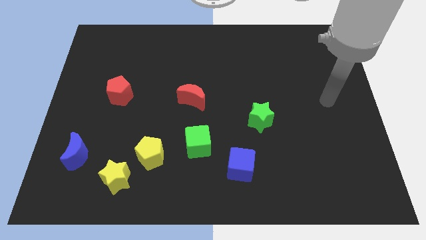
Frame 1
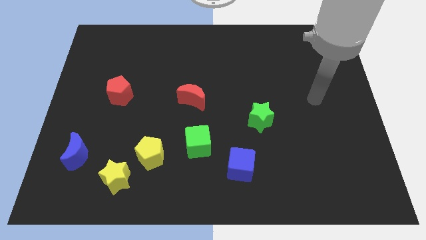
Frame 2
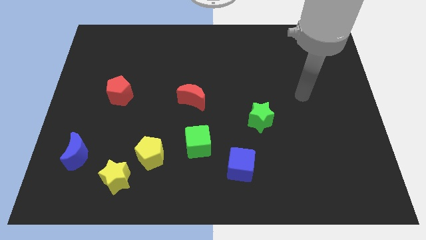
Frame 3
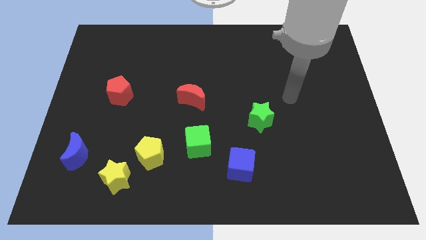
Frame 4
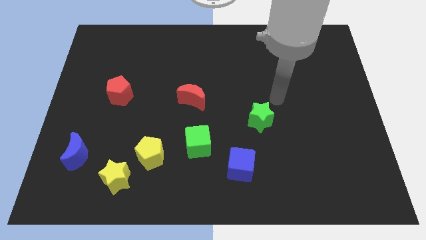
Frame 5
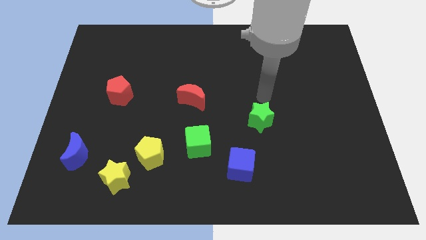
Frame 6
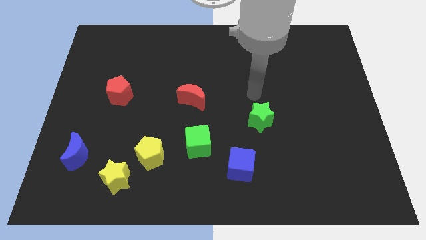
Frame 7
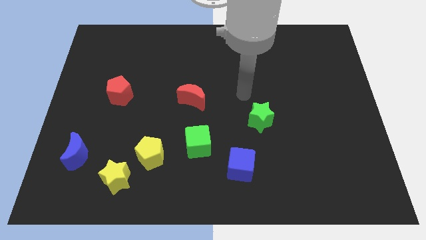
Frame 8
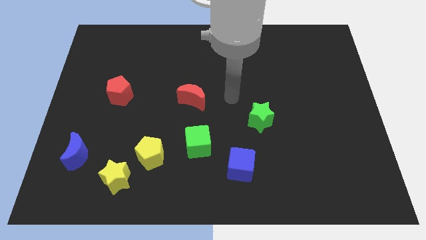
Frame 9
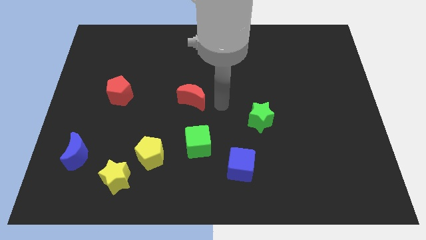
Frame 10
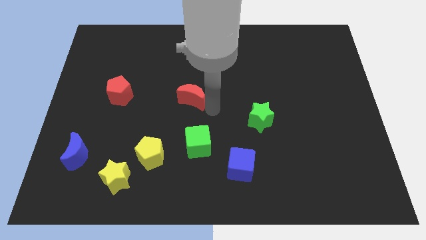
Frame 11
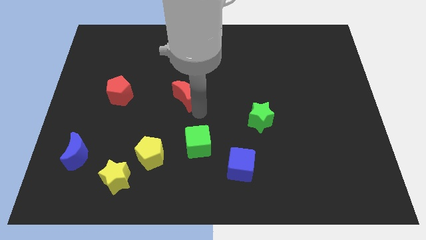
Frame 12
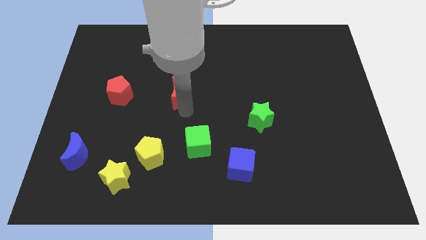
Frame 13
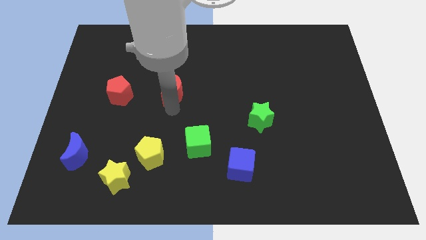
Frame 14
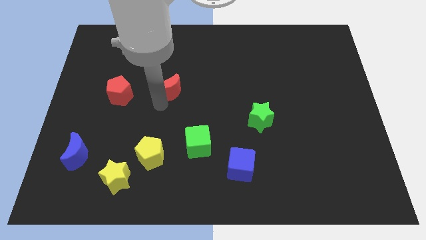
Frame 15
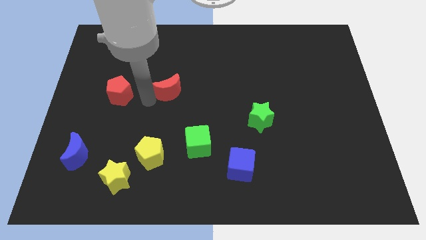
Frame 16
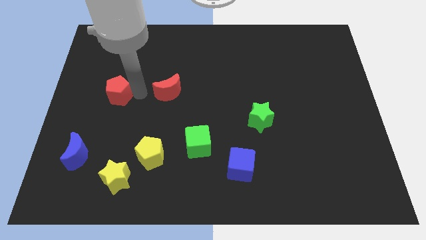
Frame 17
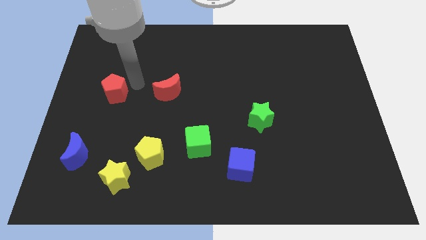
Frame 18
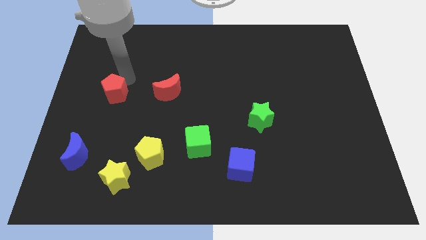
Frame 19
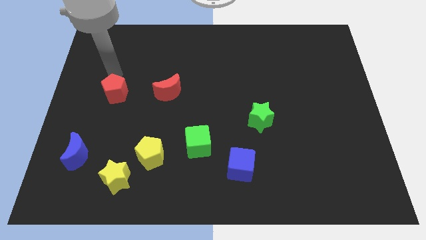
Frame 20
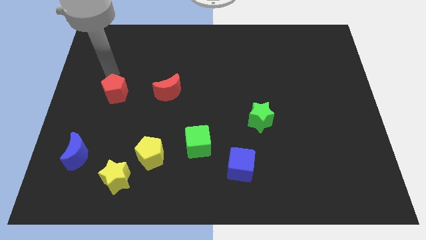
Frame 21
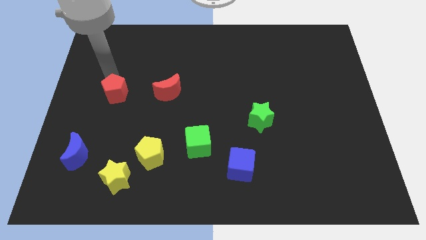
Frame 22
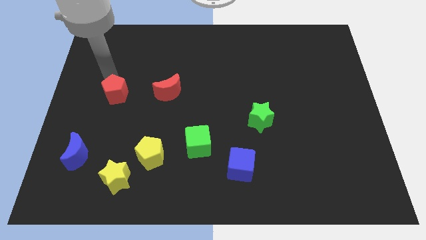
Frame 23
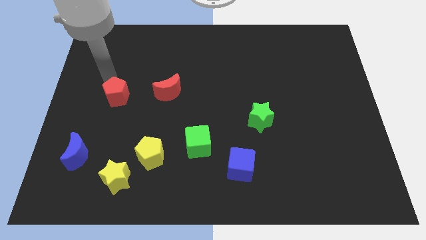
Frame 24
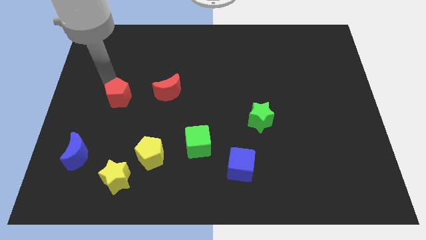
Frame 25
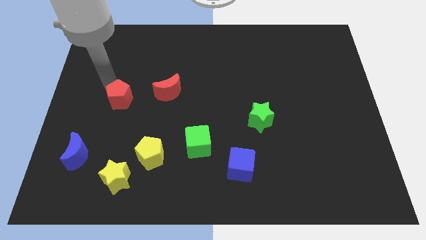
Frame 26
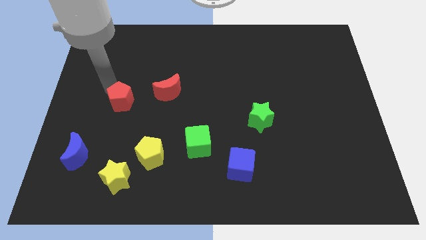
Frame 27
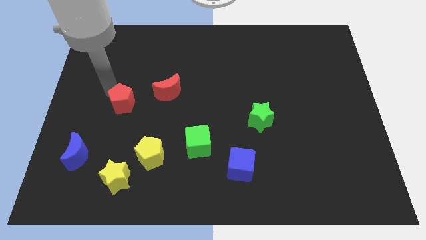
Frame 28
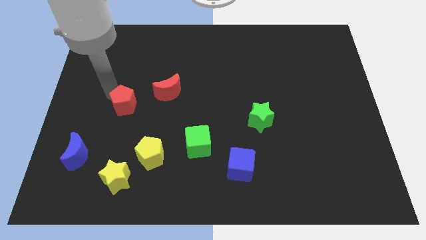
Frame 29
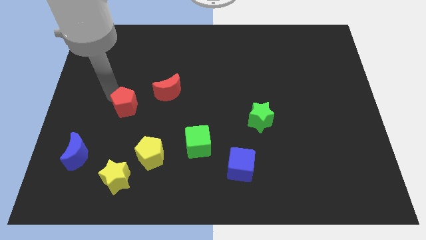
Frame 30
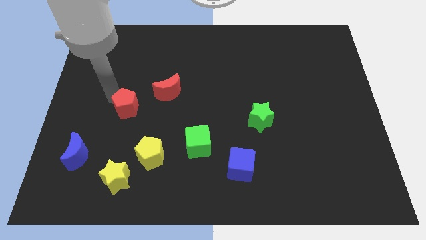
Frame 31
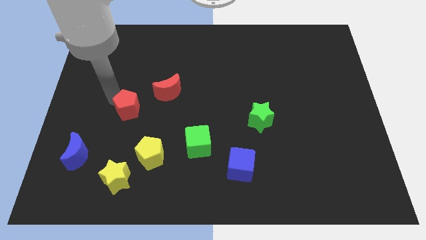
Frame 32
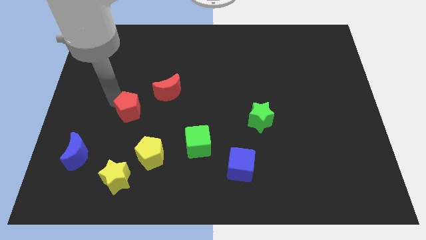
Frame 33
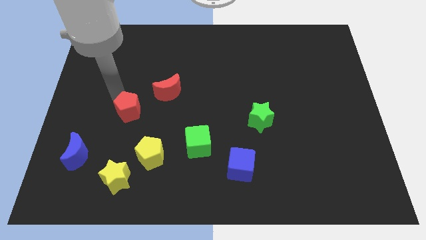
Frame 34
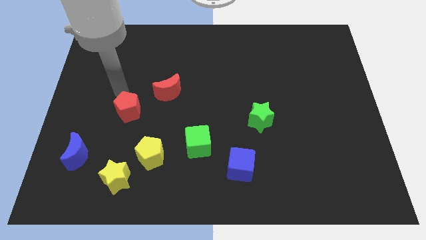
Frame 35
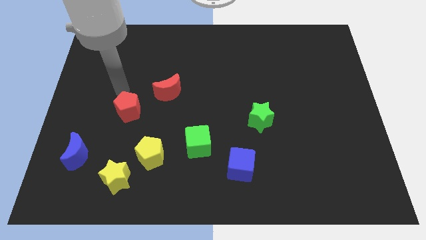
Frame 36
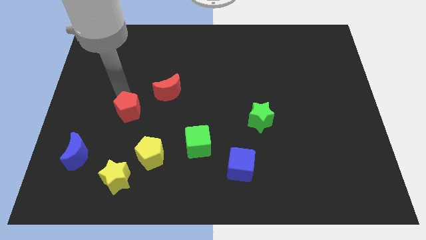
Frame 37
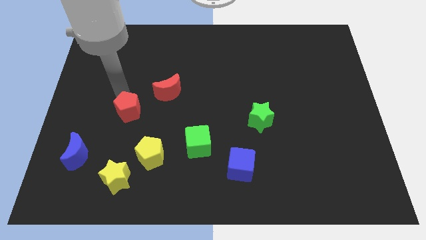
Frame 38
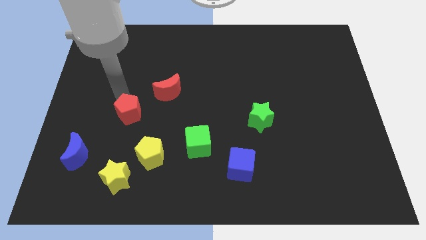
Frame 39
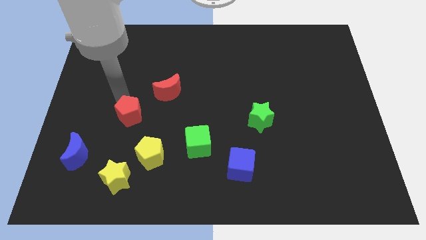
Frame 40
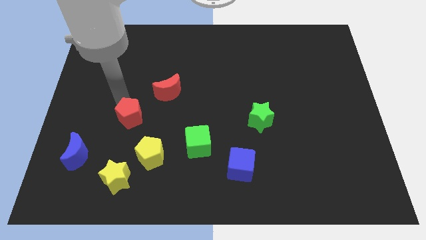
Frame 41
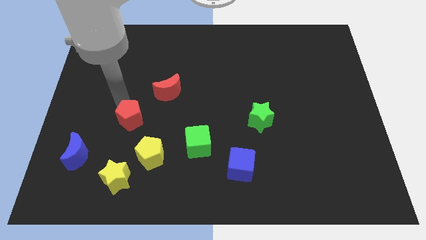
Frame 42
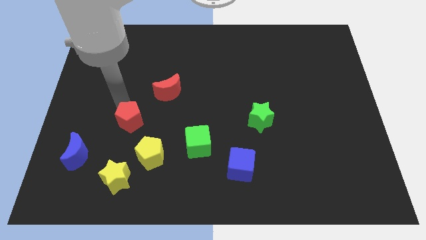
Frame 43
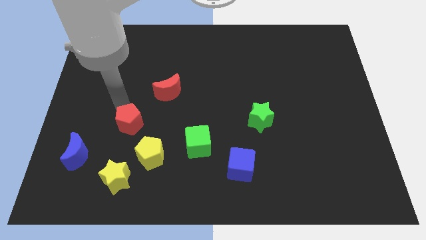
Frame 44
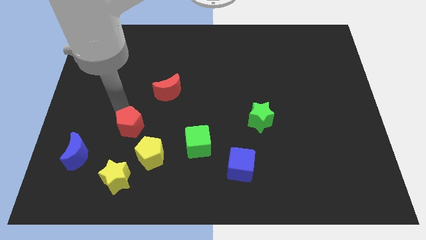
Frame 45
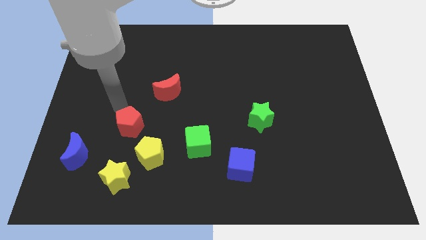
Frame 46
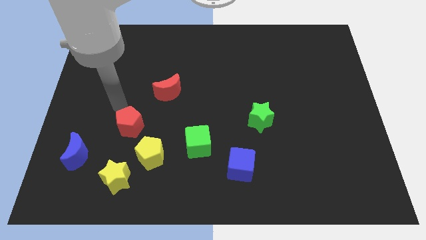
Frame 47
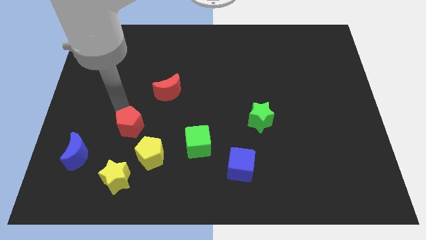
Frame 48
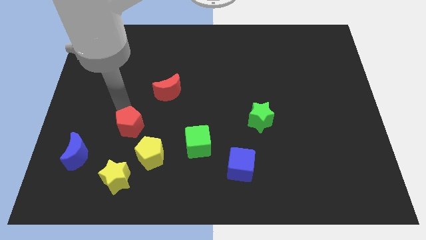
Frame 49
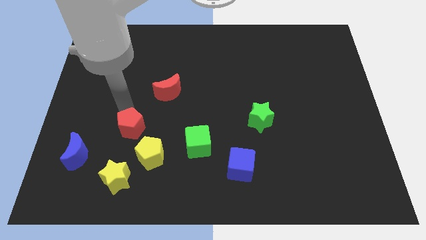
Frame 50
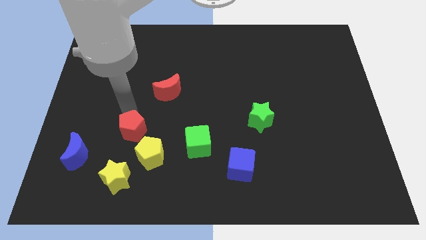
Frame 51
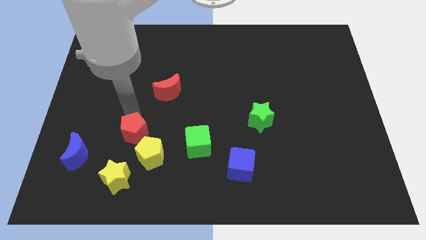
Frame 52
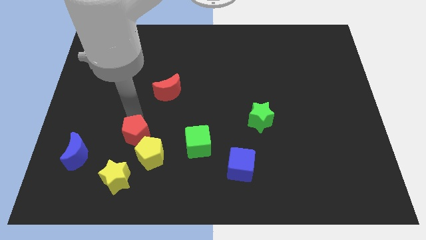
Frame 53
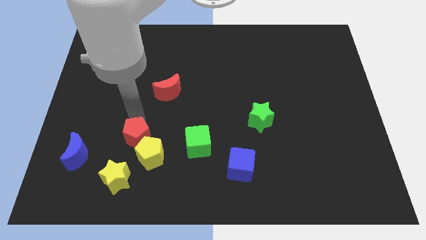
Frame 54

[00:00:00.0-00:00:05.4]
move the red pentagon to the yellow pentagon

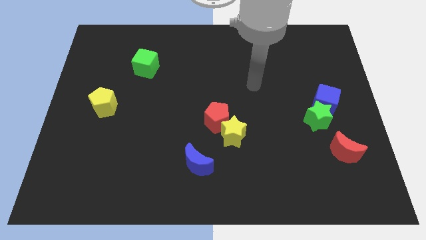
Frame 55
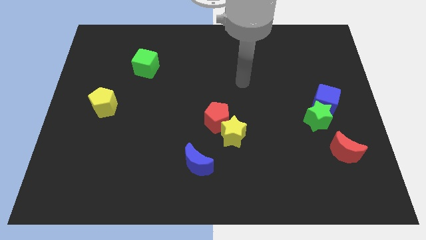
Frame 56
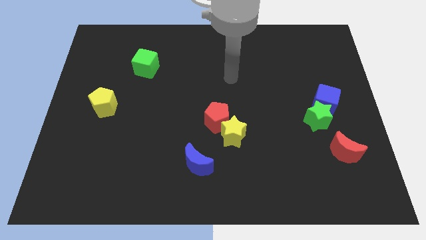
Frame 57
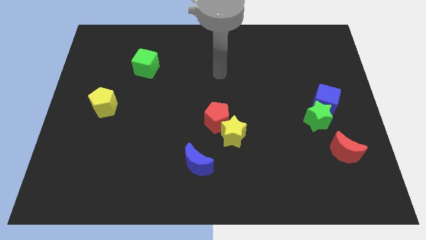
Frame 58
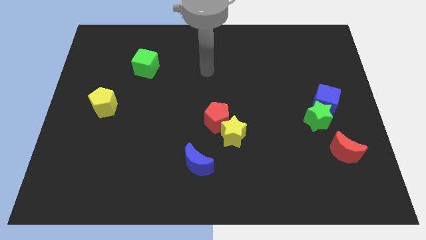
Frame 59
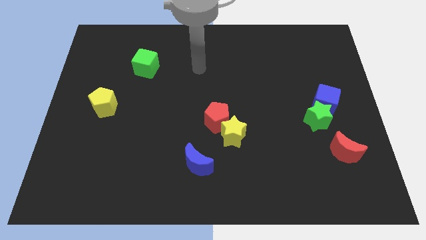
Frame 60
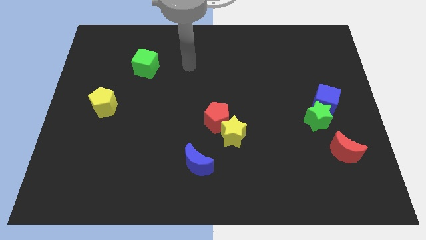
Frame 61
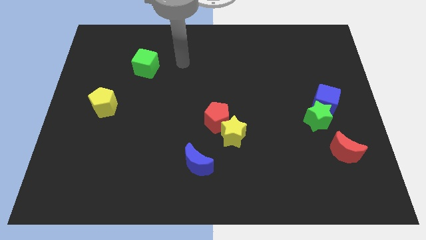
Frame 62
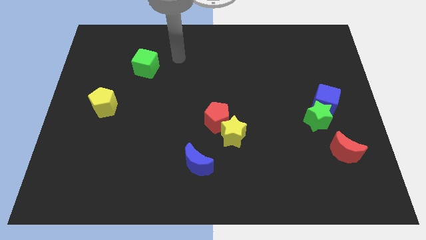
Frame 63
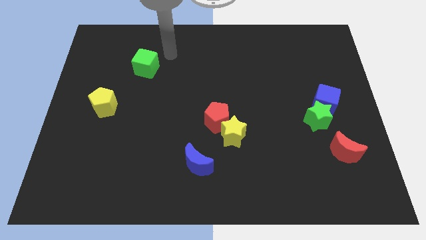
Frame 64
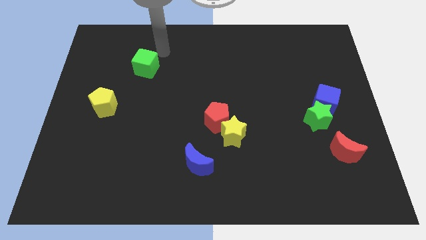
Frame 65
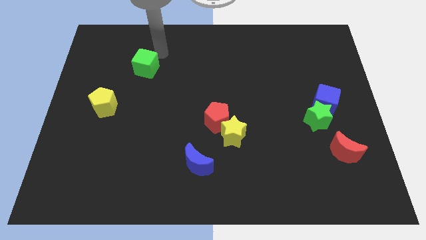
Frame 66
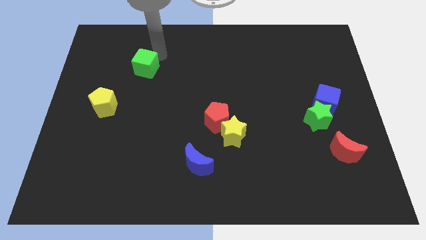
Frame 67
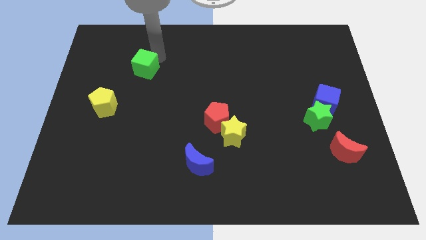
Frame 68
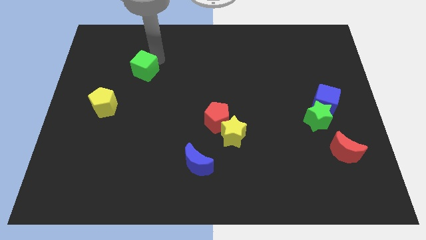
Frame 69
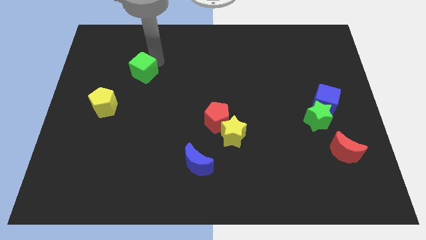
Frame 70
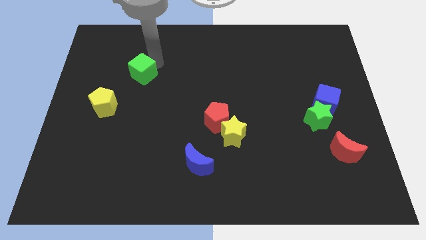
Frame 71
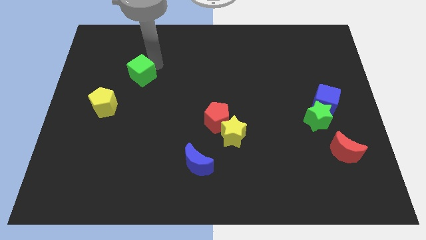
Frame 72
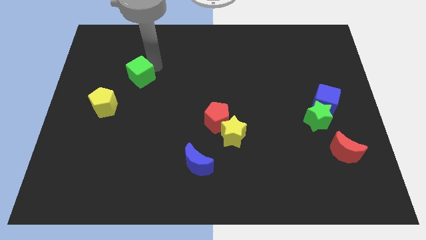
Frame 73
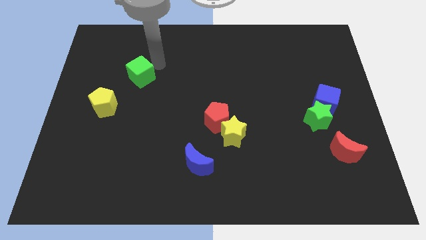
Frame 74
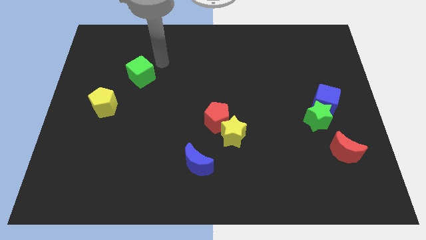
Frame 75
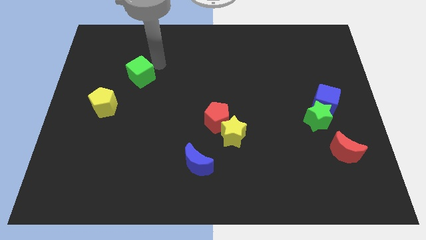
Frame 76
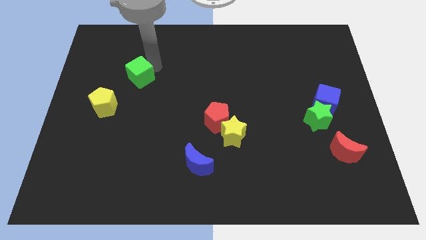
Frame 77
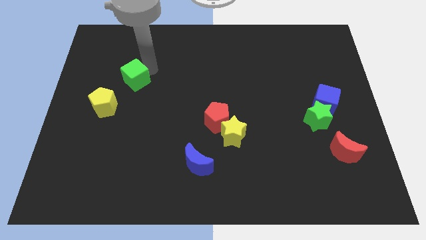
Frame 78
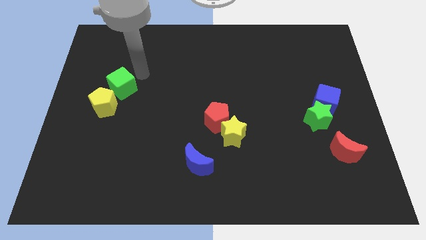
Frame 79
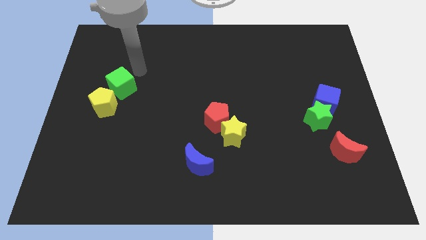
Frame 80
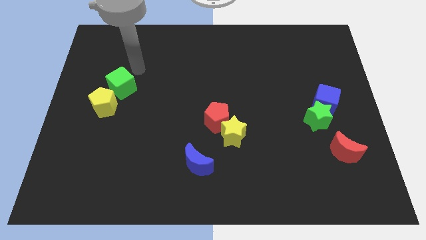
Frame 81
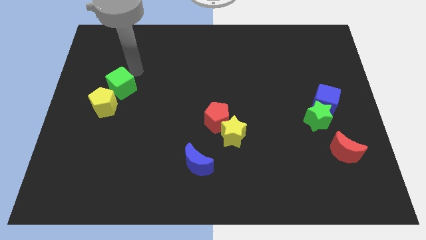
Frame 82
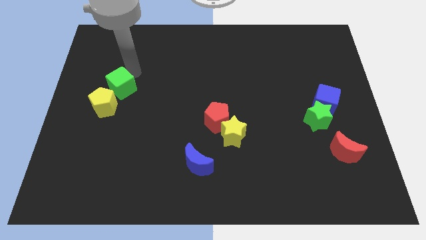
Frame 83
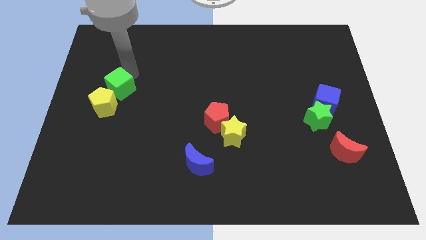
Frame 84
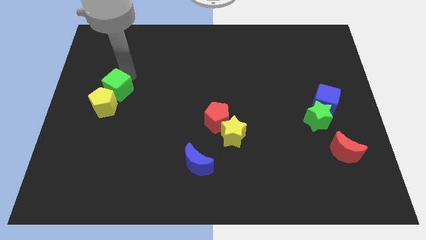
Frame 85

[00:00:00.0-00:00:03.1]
slide the green cube to the yellow pentagon
